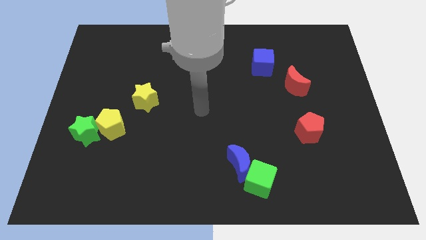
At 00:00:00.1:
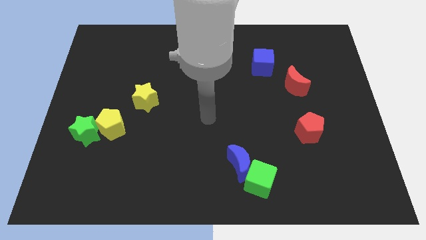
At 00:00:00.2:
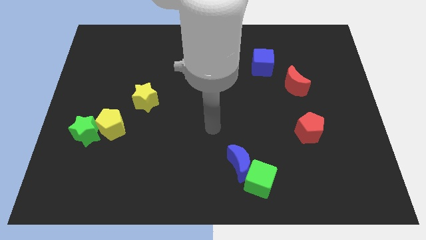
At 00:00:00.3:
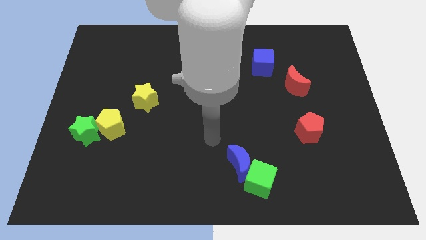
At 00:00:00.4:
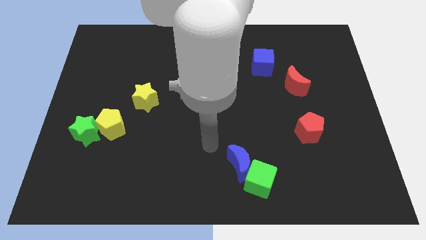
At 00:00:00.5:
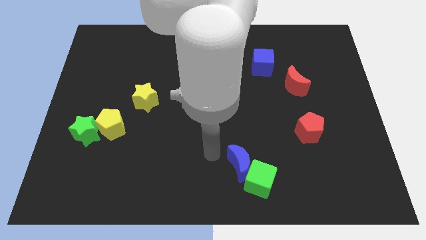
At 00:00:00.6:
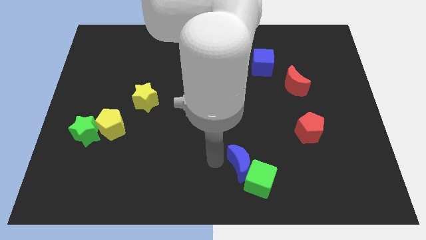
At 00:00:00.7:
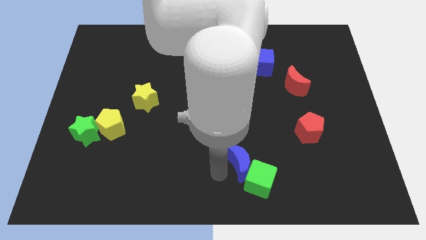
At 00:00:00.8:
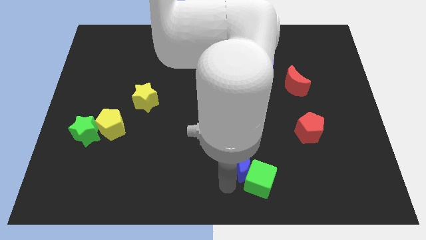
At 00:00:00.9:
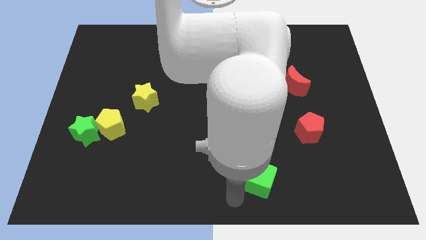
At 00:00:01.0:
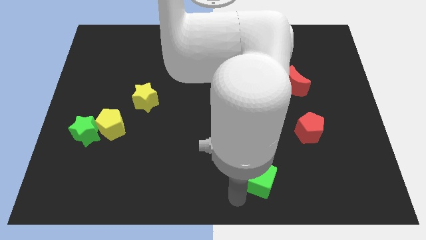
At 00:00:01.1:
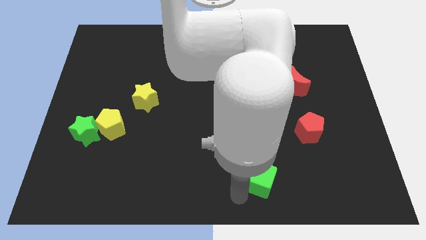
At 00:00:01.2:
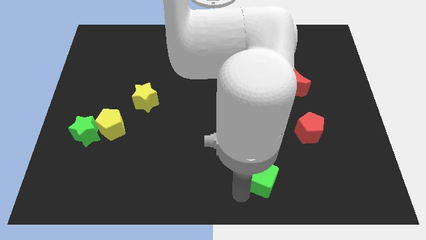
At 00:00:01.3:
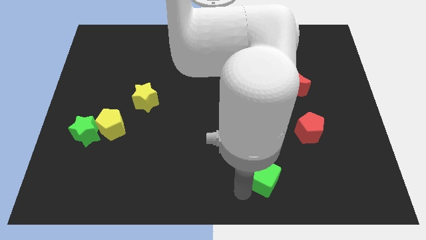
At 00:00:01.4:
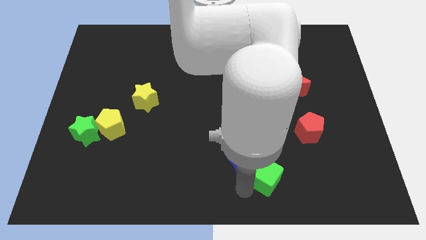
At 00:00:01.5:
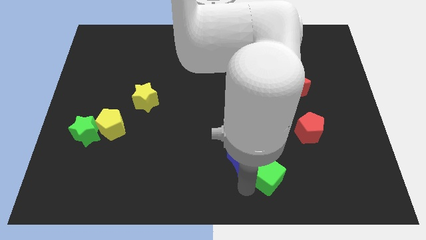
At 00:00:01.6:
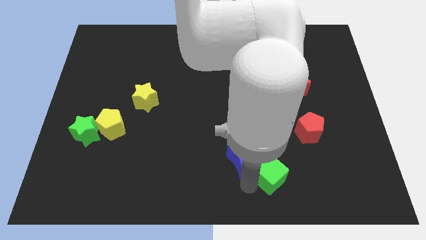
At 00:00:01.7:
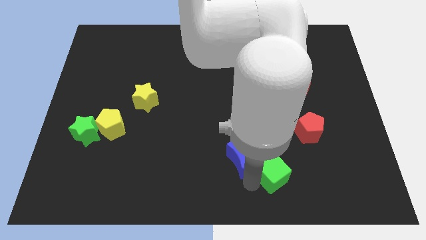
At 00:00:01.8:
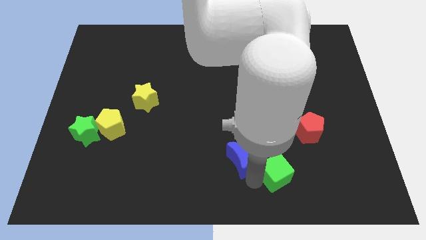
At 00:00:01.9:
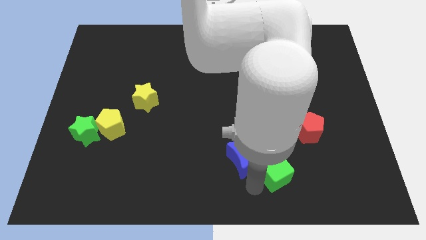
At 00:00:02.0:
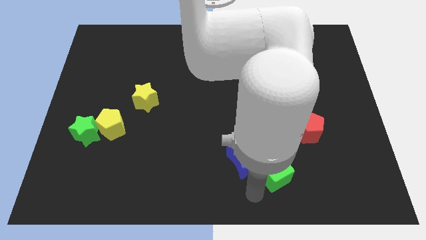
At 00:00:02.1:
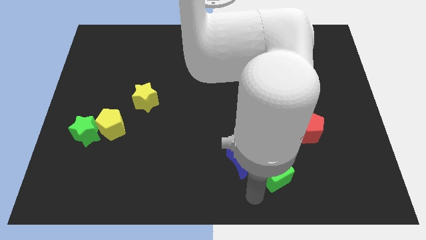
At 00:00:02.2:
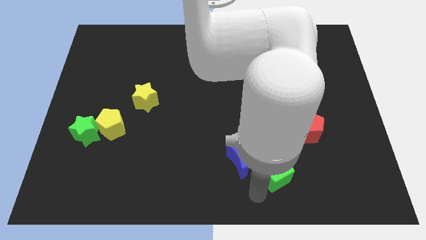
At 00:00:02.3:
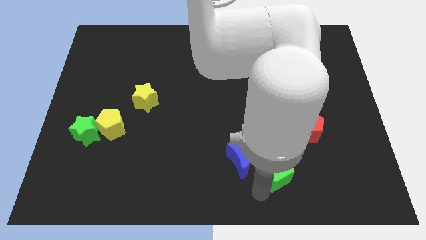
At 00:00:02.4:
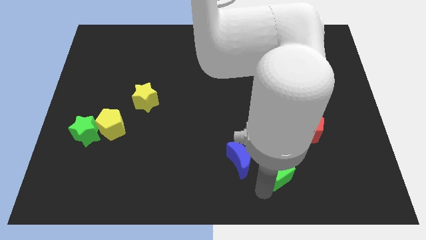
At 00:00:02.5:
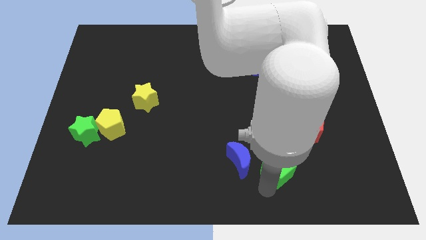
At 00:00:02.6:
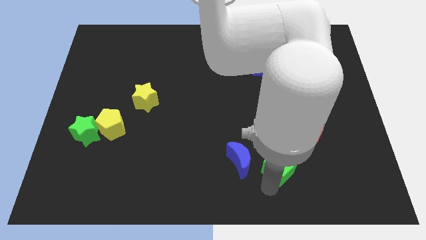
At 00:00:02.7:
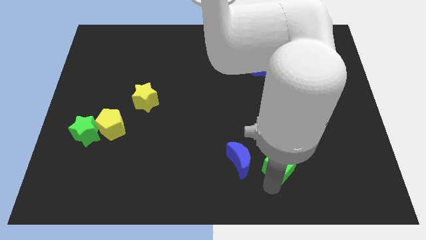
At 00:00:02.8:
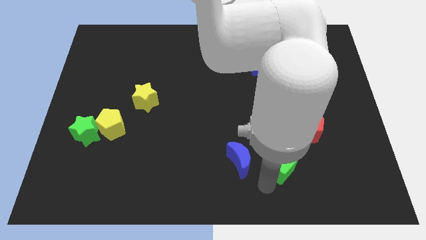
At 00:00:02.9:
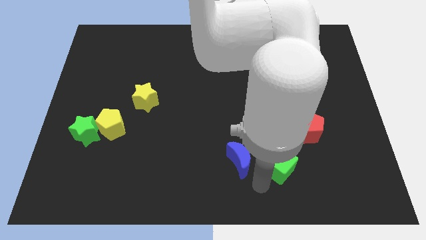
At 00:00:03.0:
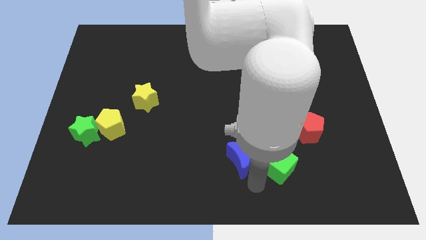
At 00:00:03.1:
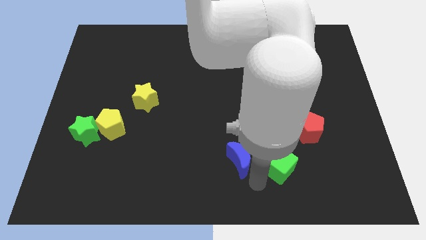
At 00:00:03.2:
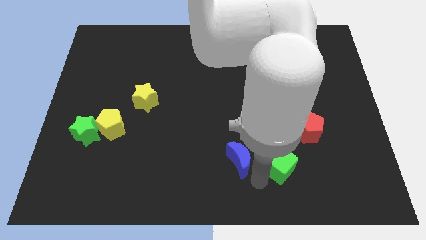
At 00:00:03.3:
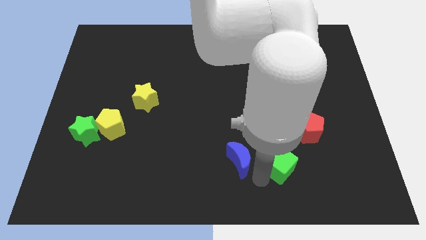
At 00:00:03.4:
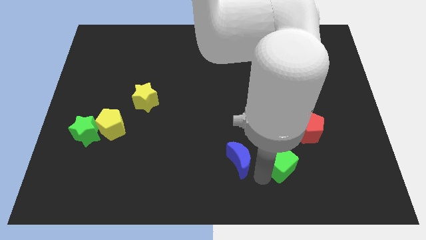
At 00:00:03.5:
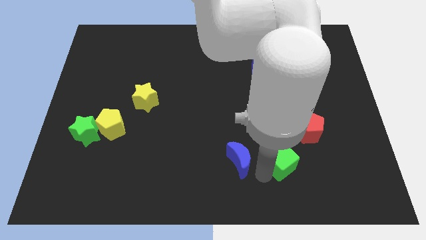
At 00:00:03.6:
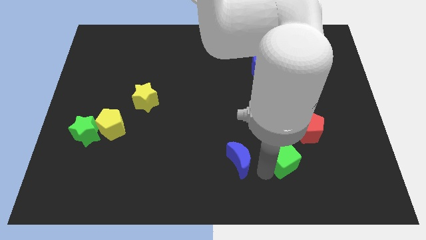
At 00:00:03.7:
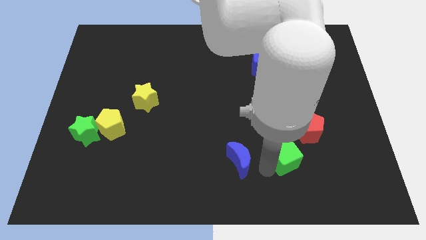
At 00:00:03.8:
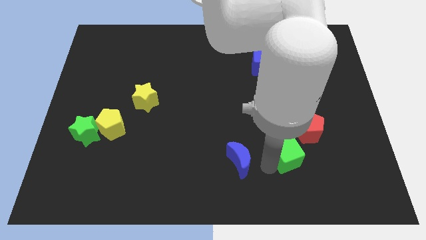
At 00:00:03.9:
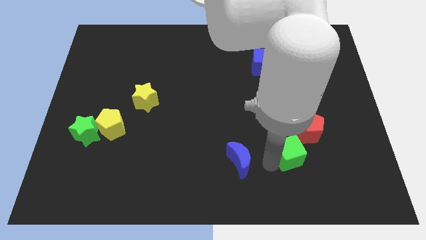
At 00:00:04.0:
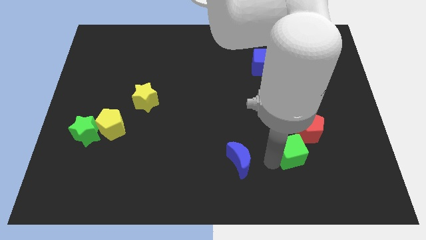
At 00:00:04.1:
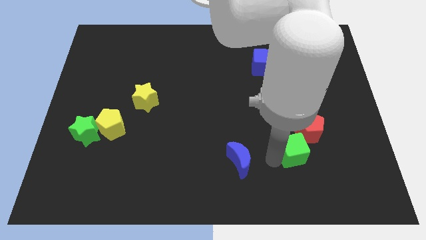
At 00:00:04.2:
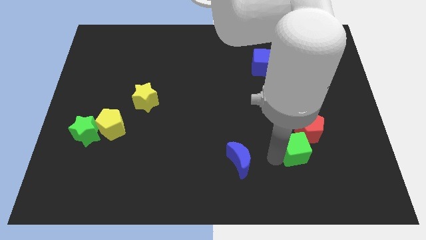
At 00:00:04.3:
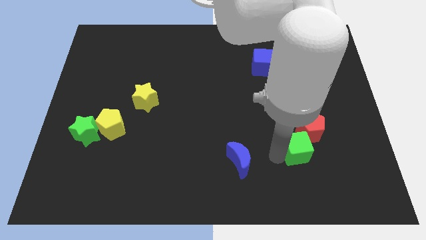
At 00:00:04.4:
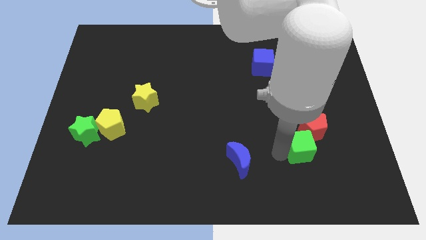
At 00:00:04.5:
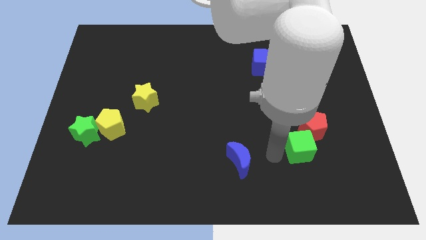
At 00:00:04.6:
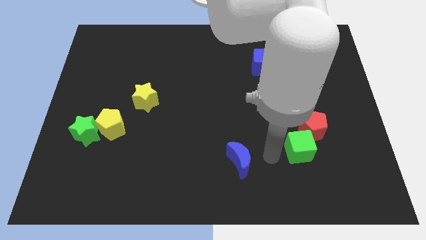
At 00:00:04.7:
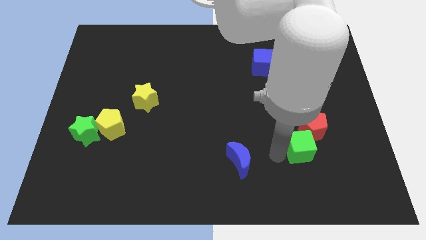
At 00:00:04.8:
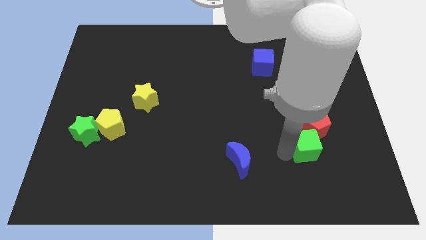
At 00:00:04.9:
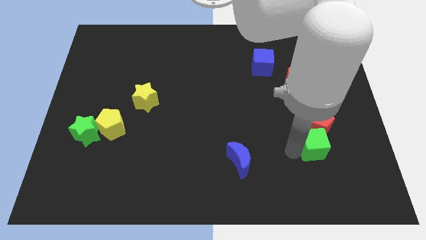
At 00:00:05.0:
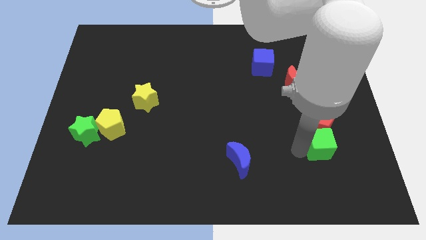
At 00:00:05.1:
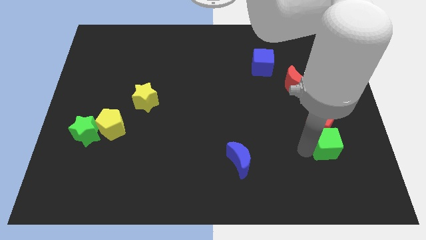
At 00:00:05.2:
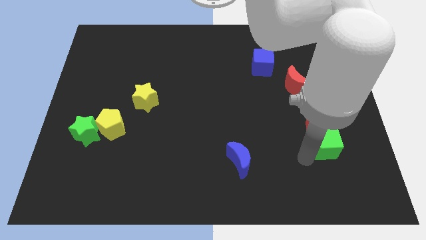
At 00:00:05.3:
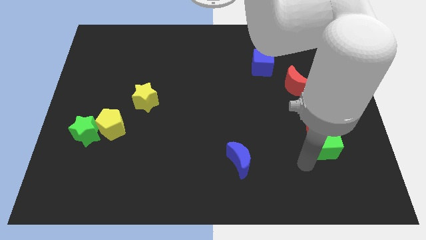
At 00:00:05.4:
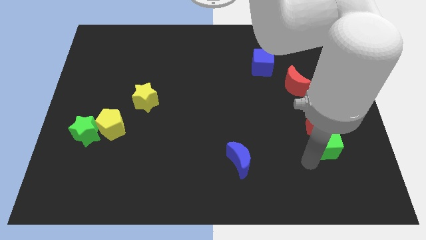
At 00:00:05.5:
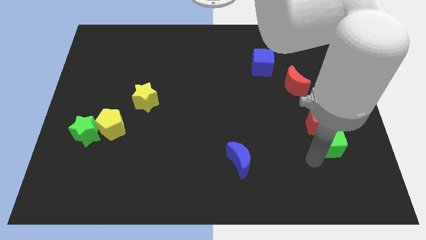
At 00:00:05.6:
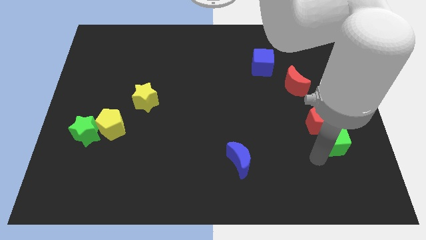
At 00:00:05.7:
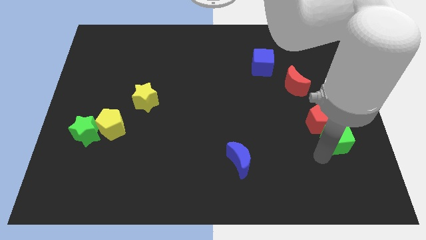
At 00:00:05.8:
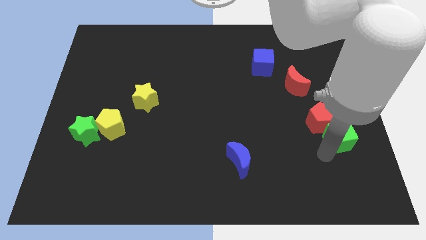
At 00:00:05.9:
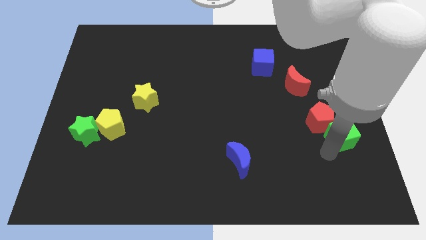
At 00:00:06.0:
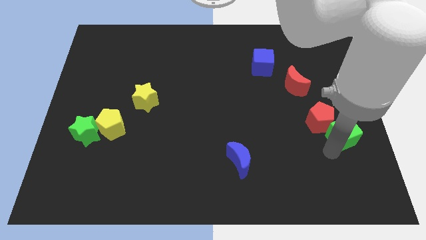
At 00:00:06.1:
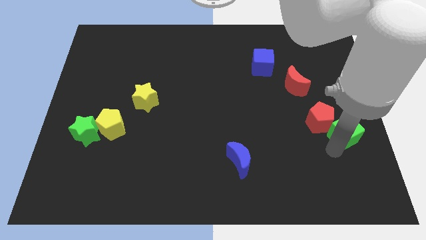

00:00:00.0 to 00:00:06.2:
push the green cube to the right side of the board
